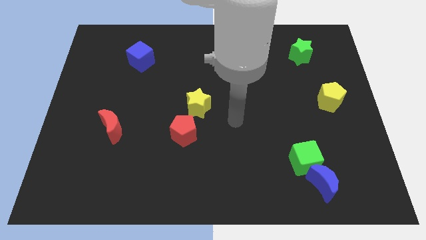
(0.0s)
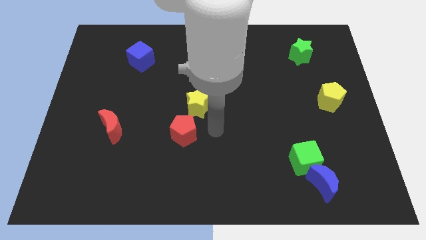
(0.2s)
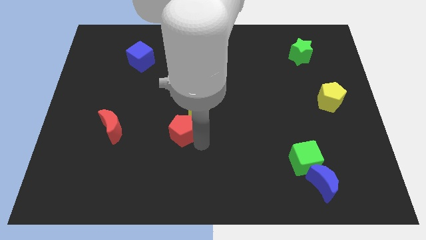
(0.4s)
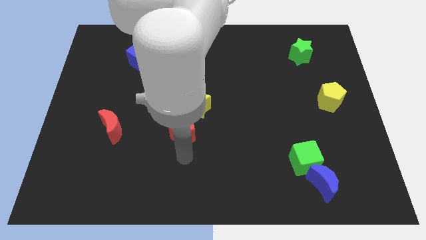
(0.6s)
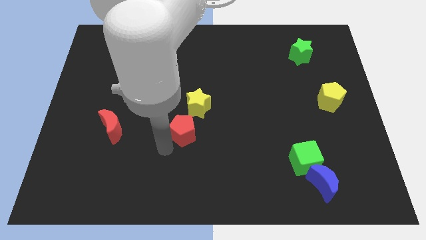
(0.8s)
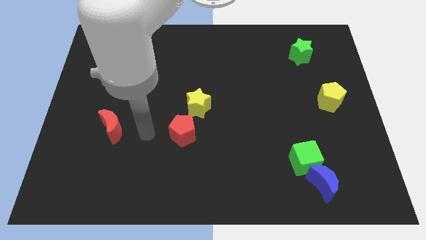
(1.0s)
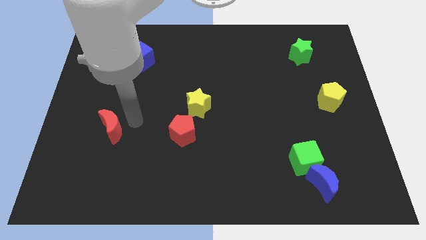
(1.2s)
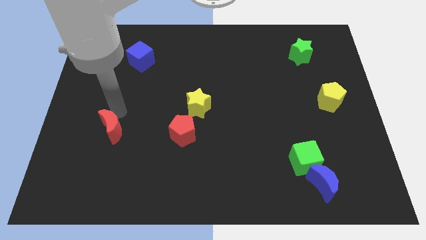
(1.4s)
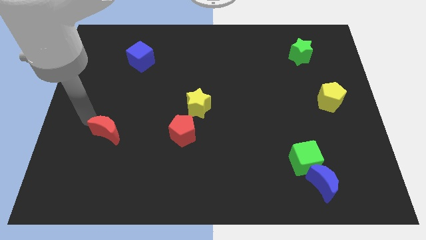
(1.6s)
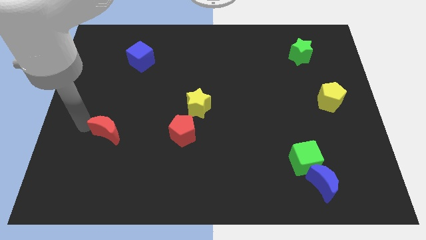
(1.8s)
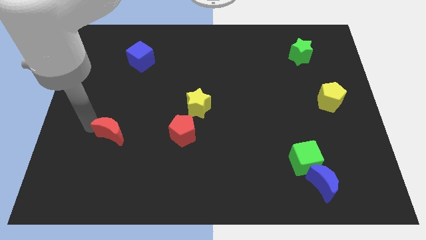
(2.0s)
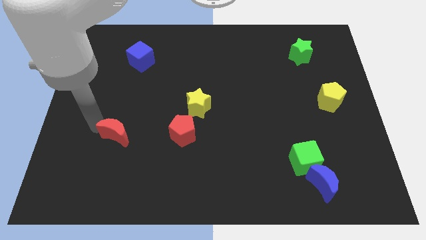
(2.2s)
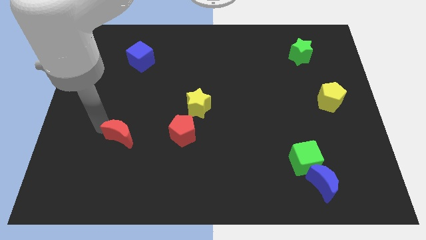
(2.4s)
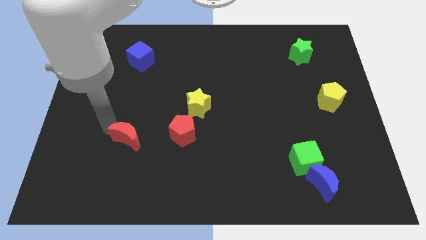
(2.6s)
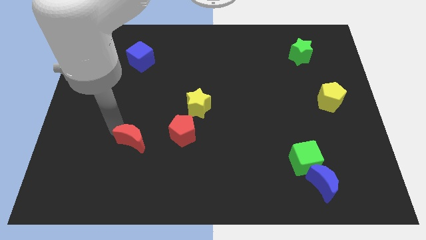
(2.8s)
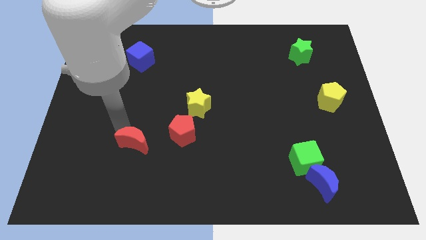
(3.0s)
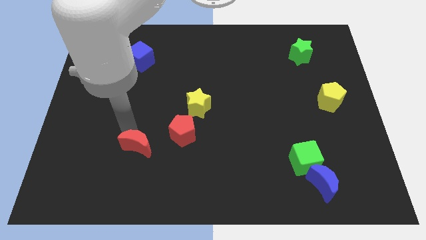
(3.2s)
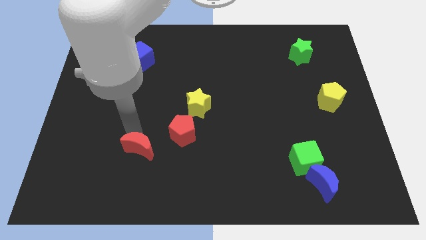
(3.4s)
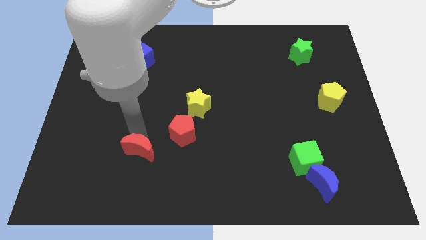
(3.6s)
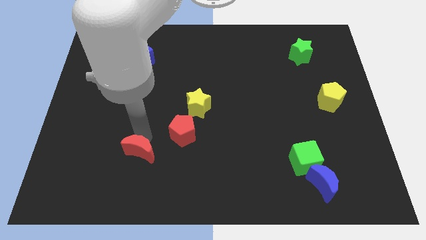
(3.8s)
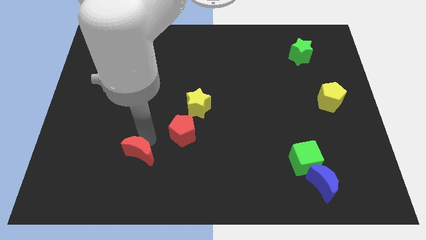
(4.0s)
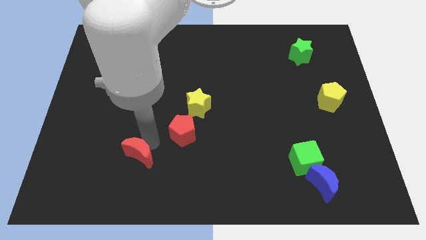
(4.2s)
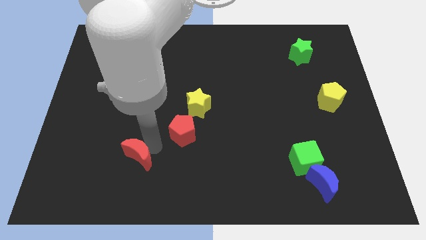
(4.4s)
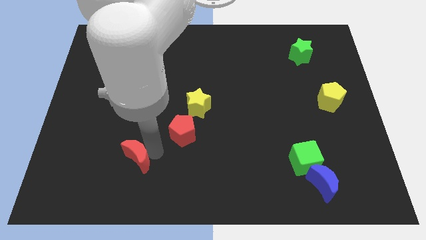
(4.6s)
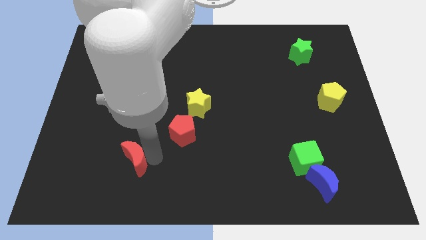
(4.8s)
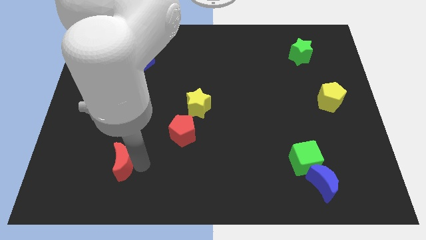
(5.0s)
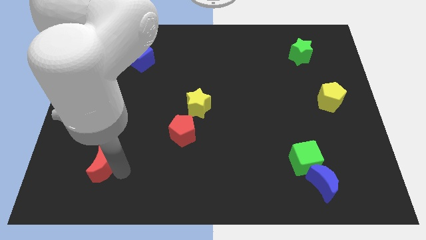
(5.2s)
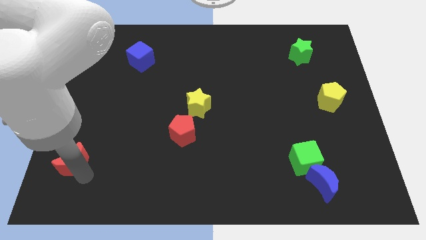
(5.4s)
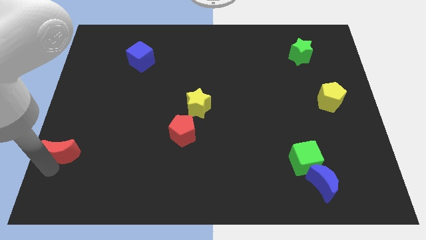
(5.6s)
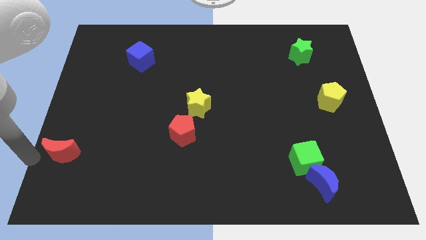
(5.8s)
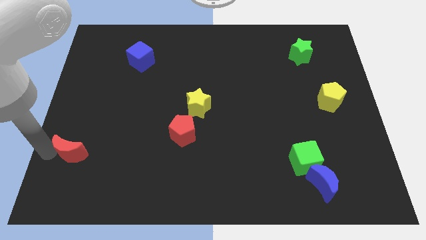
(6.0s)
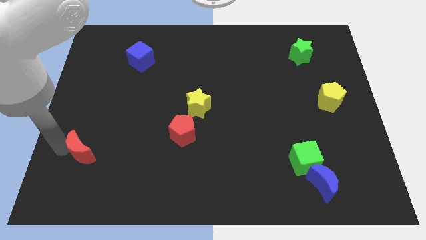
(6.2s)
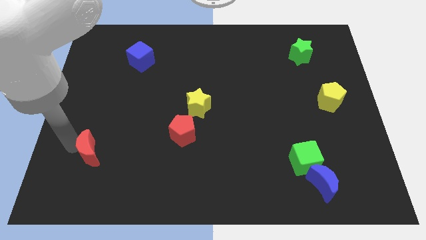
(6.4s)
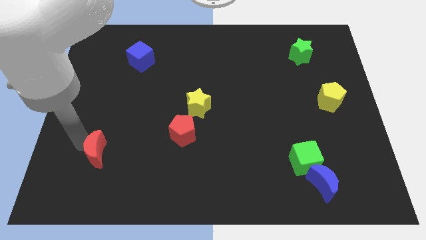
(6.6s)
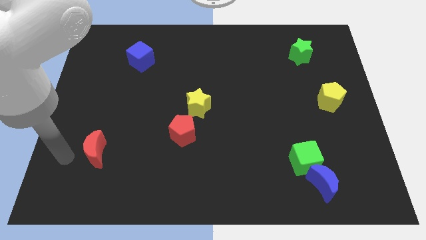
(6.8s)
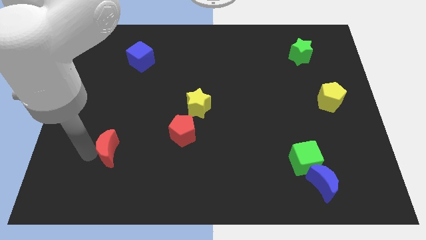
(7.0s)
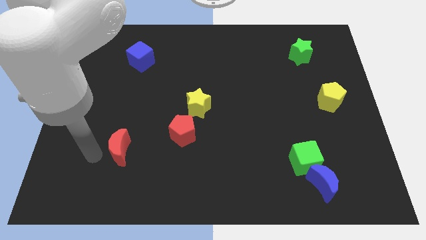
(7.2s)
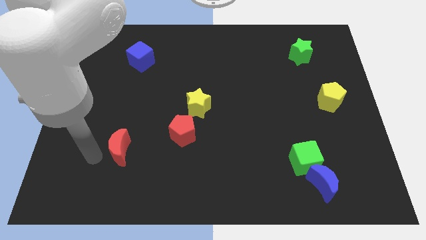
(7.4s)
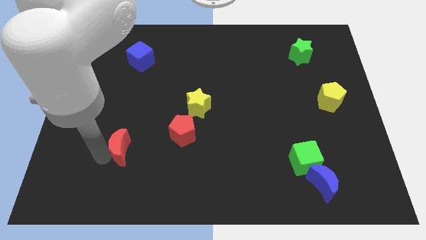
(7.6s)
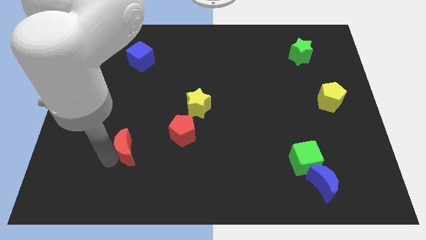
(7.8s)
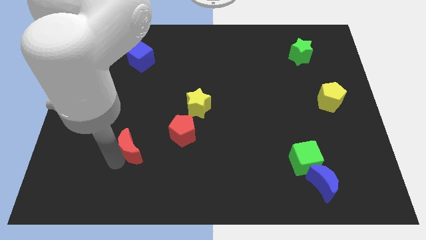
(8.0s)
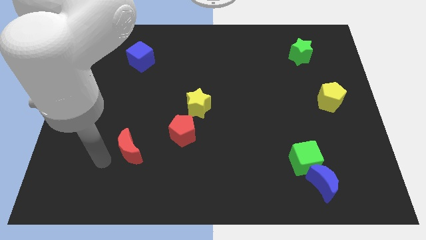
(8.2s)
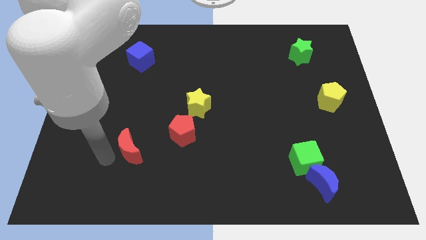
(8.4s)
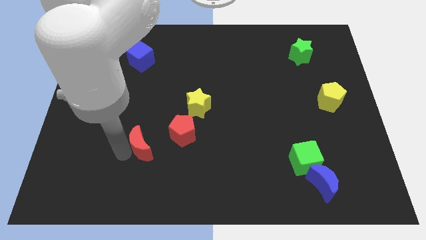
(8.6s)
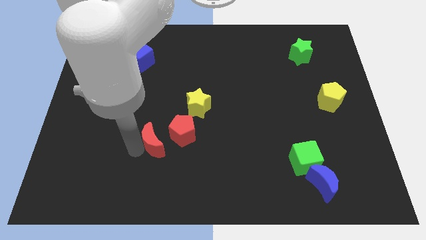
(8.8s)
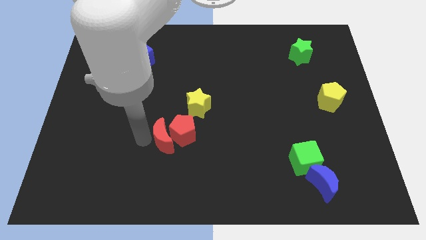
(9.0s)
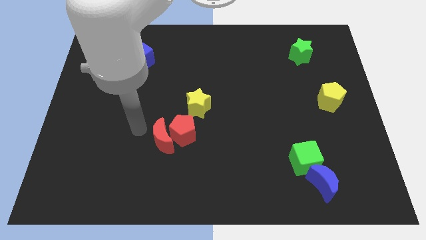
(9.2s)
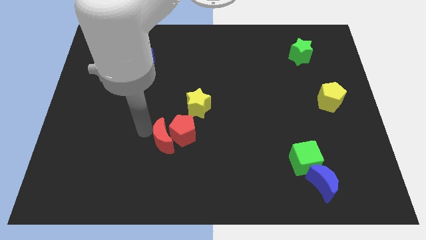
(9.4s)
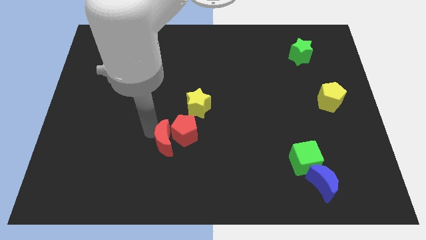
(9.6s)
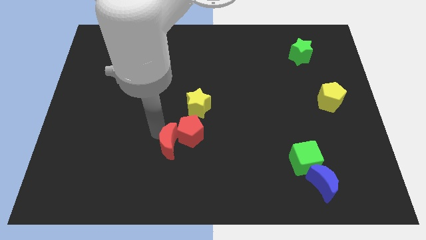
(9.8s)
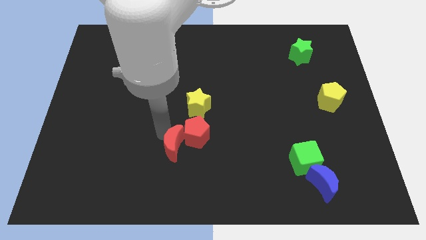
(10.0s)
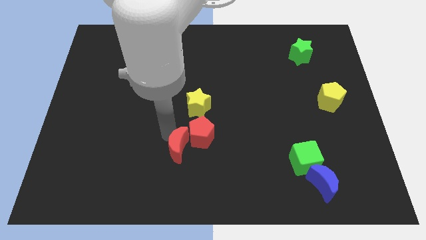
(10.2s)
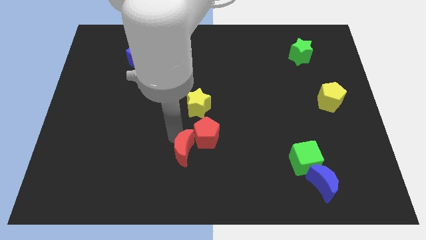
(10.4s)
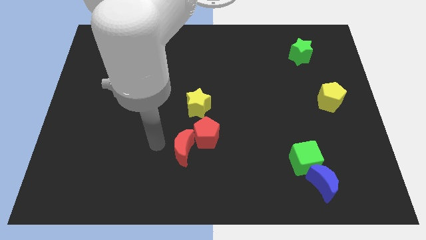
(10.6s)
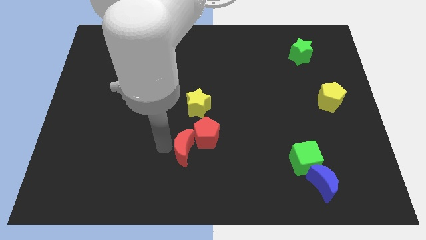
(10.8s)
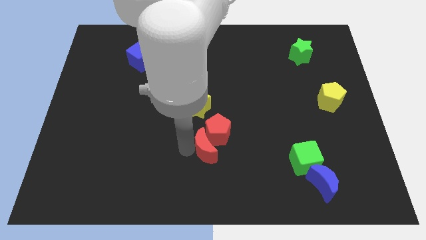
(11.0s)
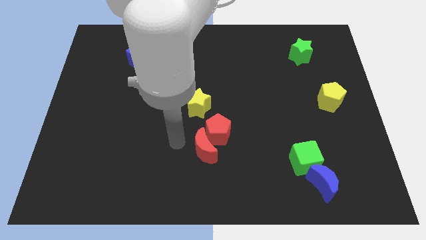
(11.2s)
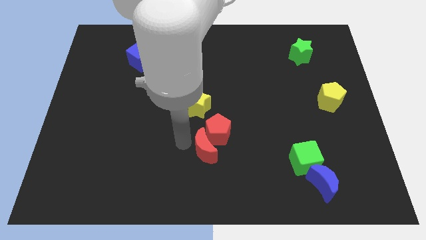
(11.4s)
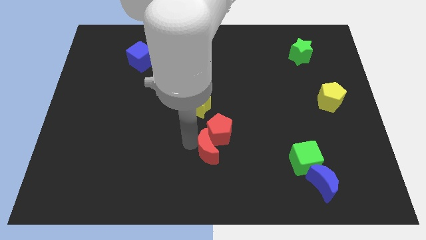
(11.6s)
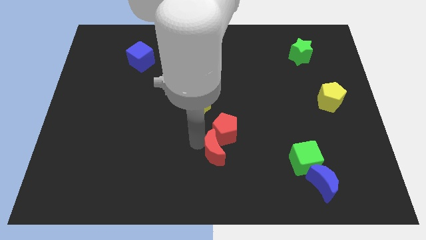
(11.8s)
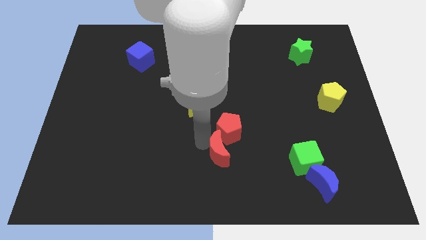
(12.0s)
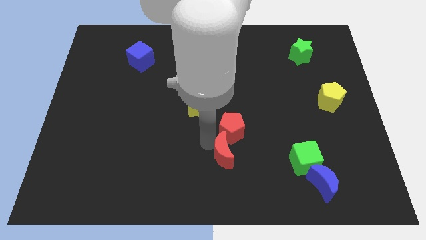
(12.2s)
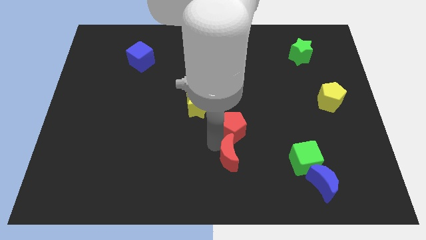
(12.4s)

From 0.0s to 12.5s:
slide the red moon to the left of the green cube

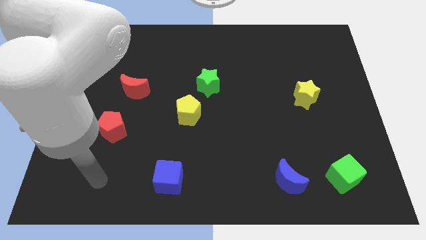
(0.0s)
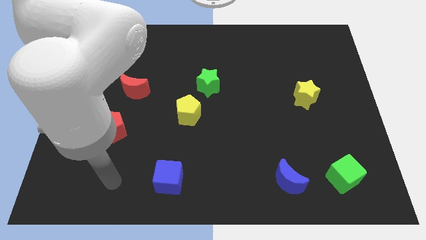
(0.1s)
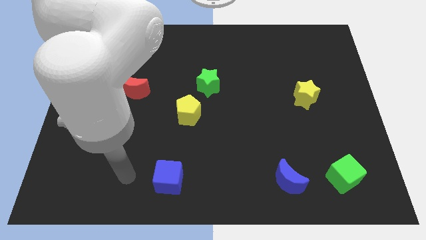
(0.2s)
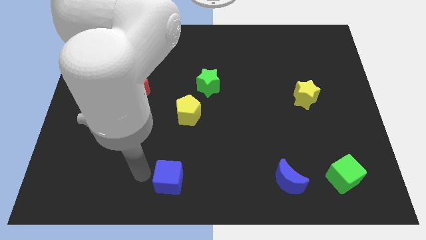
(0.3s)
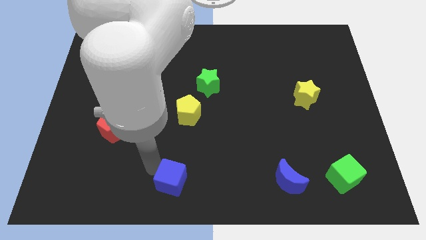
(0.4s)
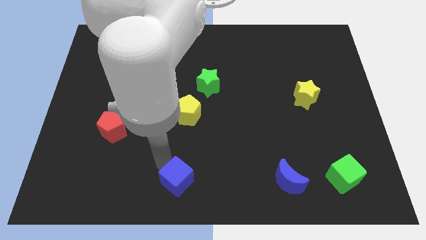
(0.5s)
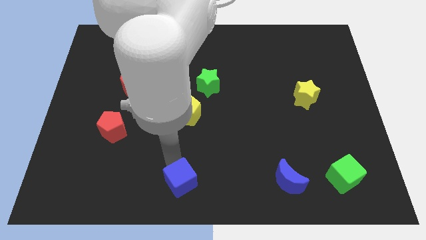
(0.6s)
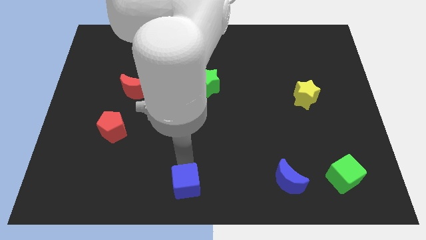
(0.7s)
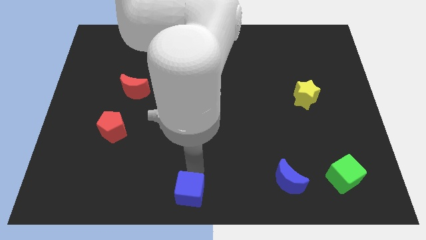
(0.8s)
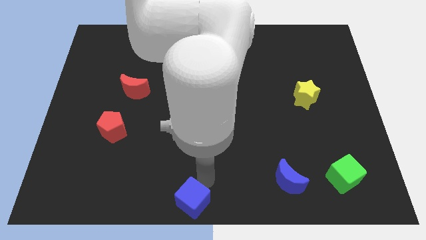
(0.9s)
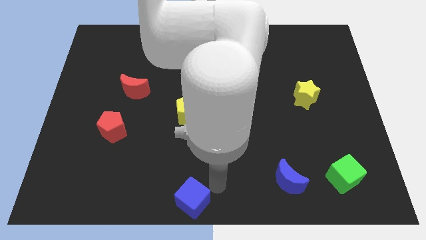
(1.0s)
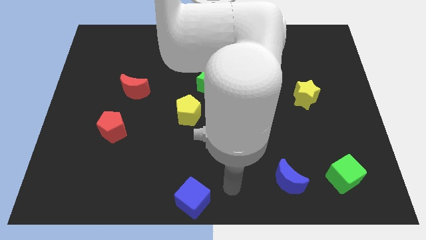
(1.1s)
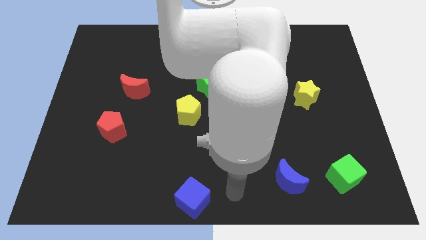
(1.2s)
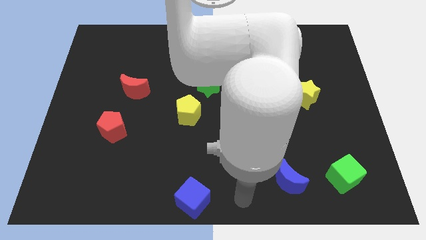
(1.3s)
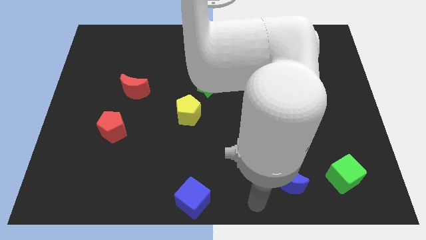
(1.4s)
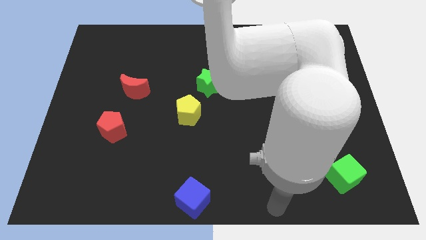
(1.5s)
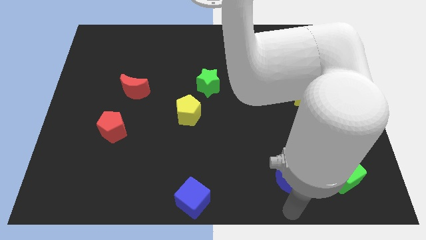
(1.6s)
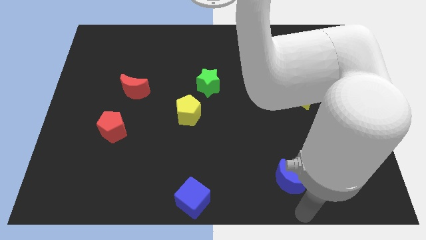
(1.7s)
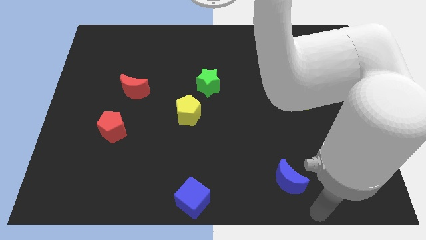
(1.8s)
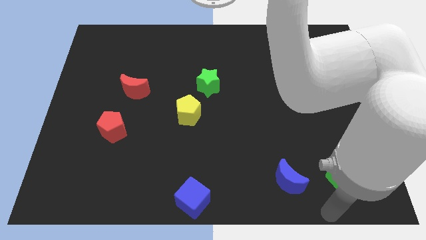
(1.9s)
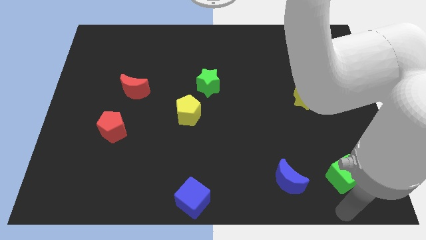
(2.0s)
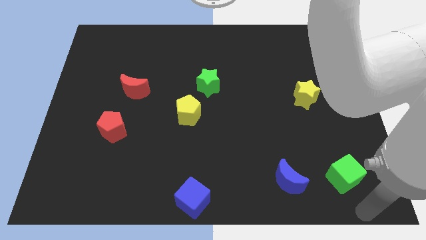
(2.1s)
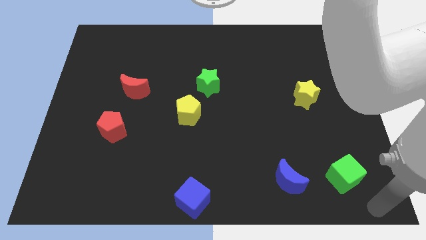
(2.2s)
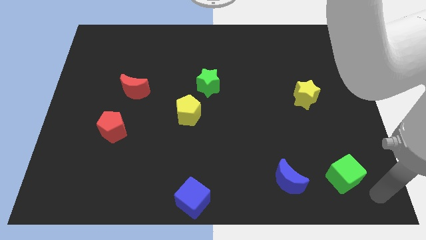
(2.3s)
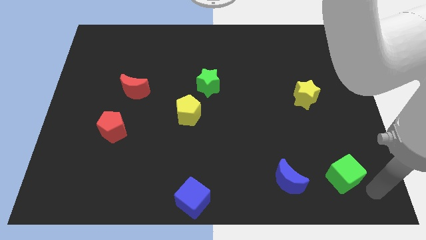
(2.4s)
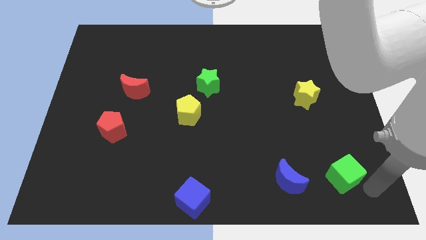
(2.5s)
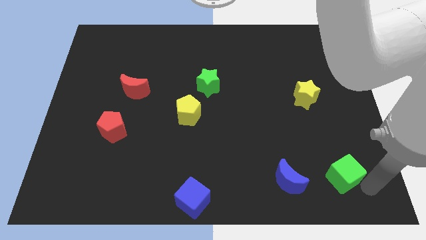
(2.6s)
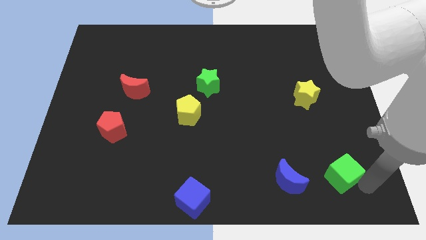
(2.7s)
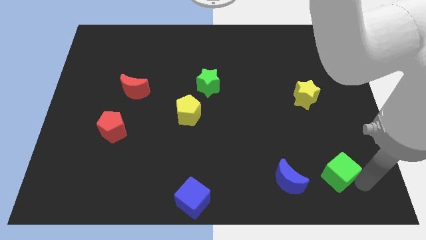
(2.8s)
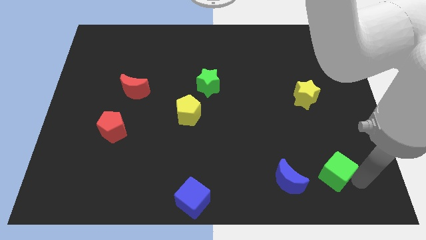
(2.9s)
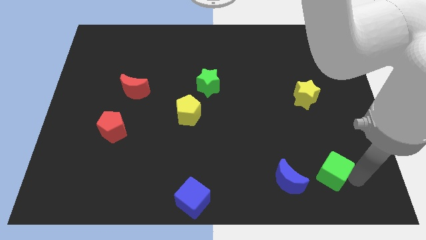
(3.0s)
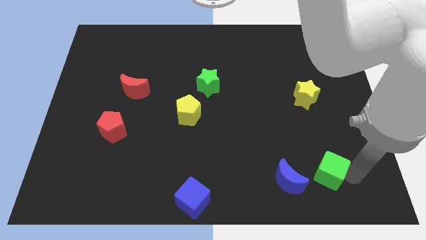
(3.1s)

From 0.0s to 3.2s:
put the green cube to the top right side of the blue moon
